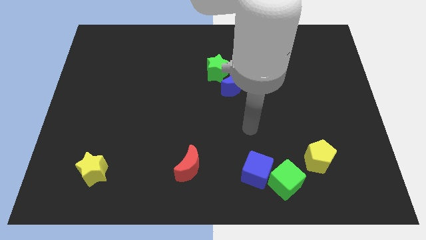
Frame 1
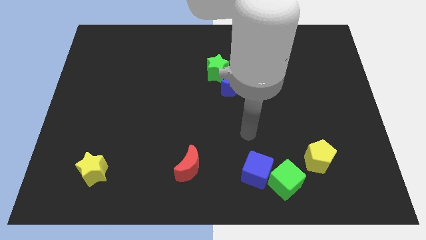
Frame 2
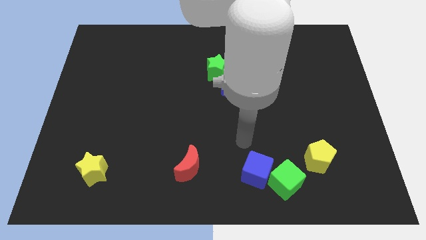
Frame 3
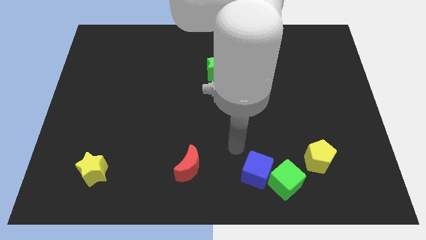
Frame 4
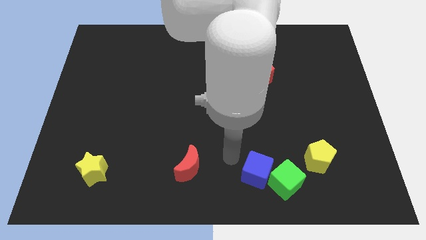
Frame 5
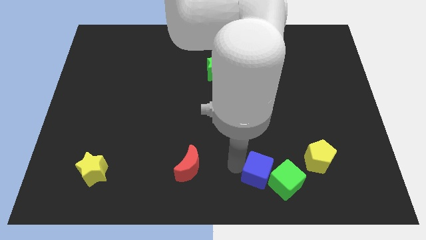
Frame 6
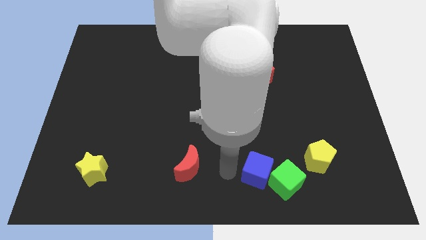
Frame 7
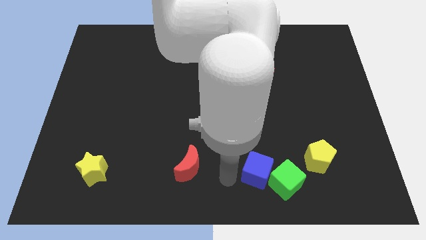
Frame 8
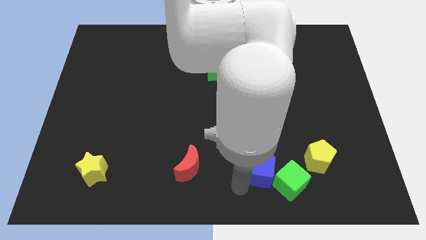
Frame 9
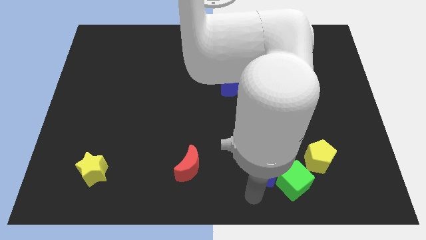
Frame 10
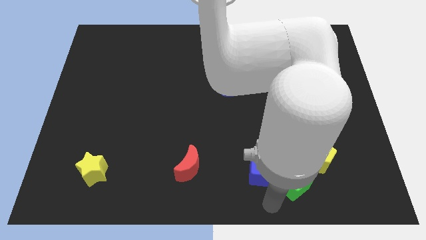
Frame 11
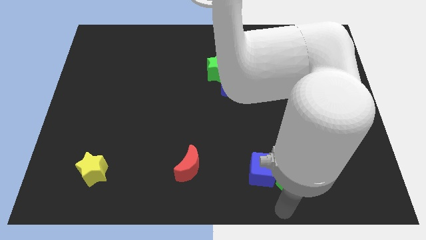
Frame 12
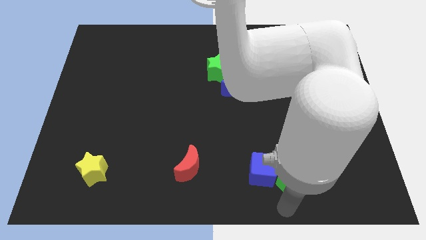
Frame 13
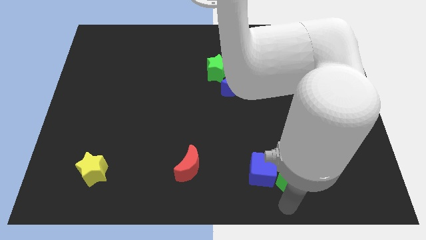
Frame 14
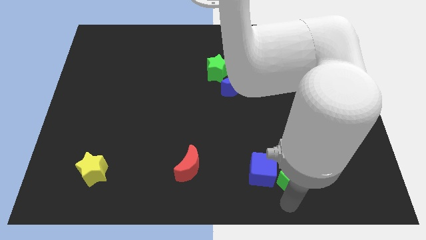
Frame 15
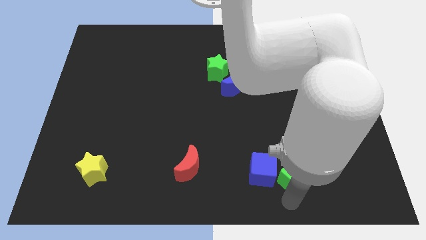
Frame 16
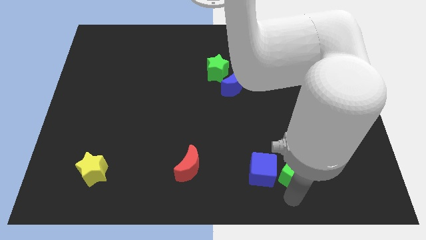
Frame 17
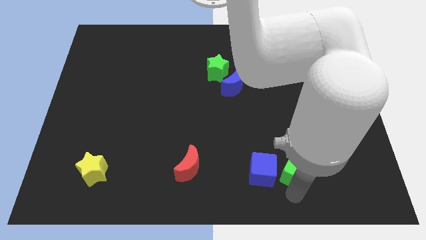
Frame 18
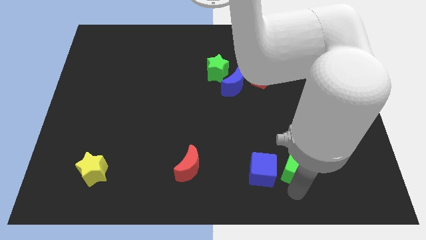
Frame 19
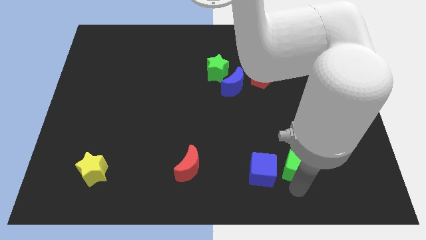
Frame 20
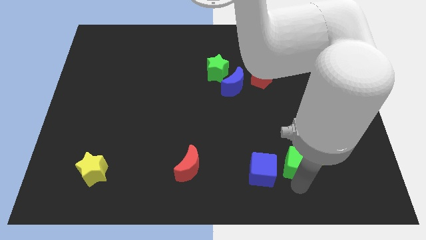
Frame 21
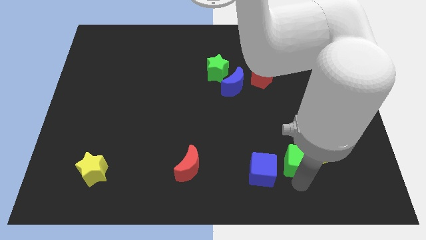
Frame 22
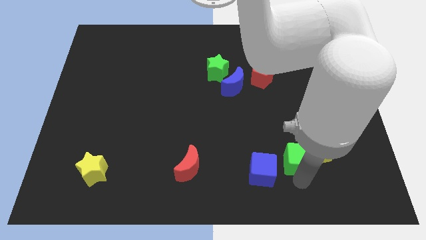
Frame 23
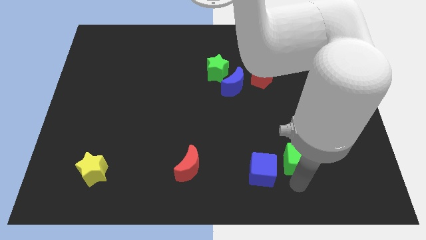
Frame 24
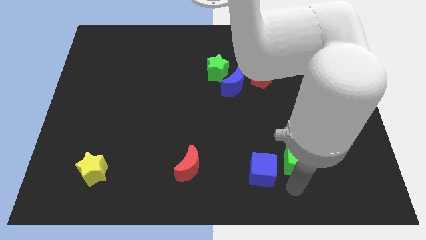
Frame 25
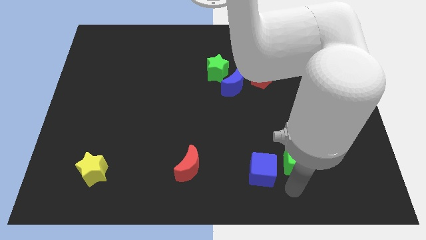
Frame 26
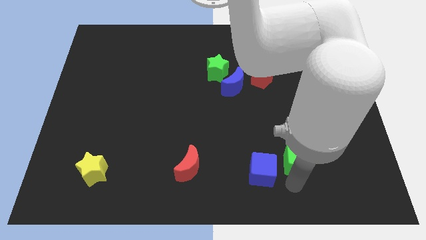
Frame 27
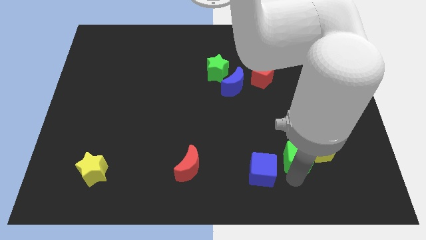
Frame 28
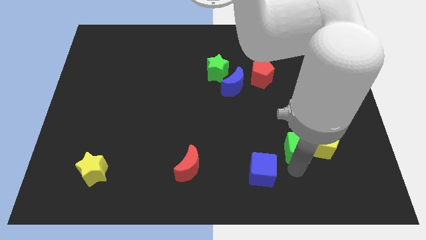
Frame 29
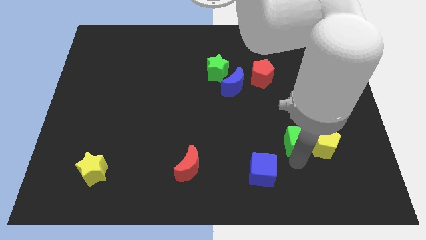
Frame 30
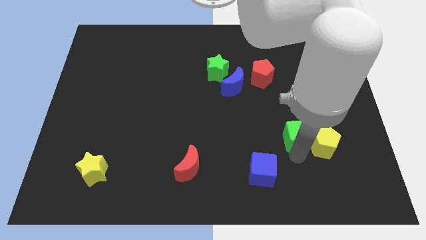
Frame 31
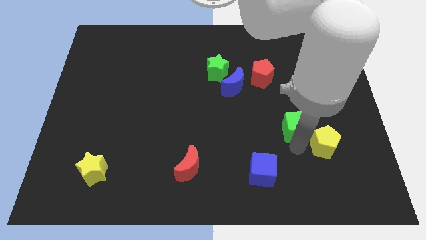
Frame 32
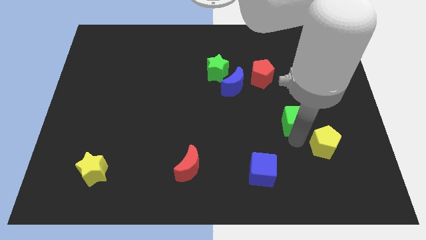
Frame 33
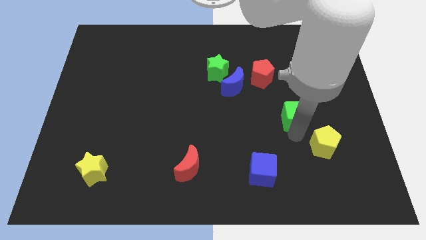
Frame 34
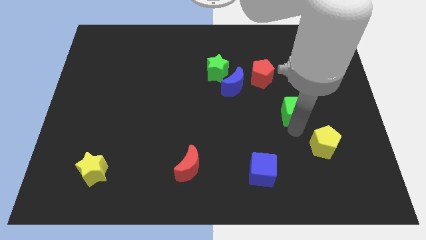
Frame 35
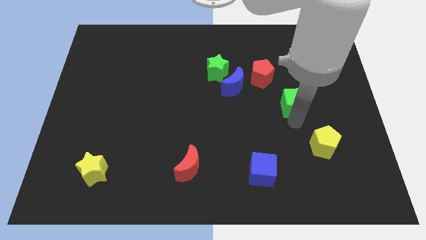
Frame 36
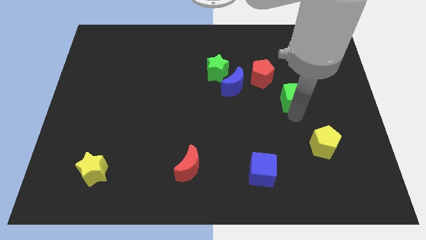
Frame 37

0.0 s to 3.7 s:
move the green cube up

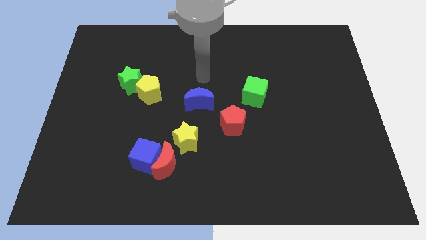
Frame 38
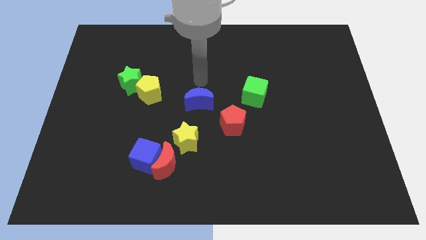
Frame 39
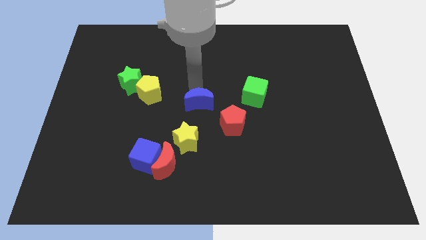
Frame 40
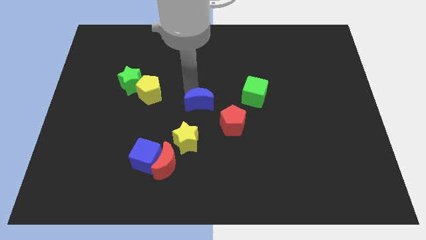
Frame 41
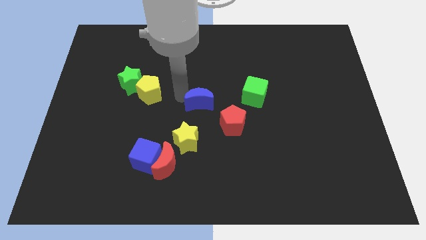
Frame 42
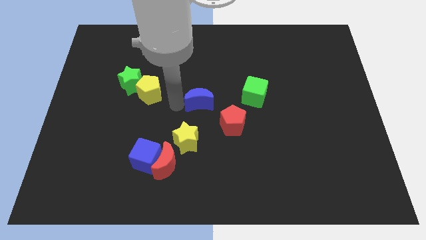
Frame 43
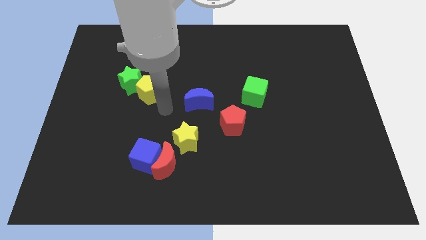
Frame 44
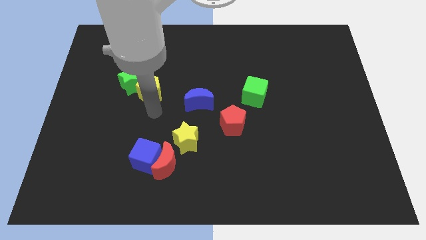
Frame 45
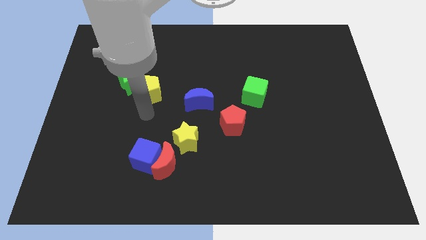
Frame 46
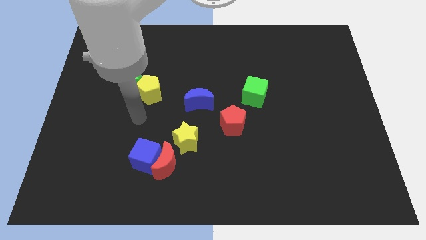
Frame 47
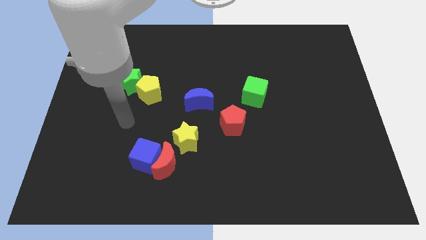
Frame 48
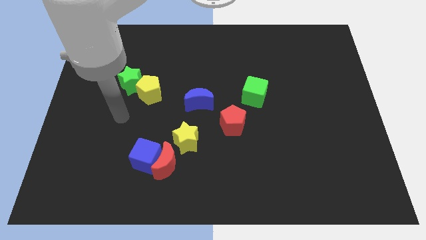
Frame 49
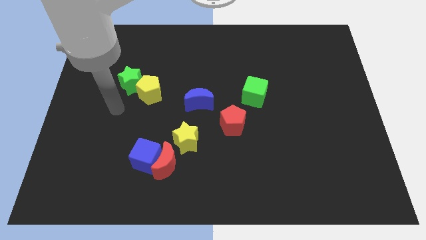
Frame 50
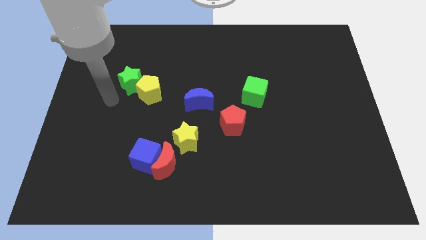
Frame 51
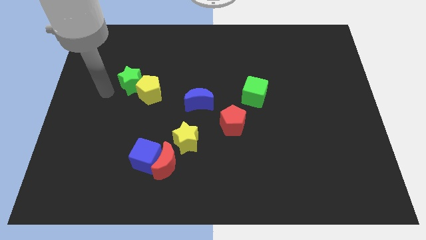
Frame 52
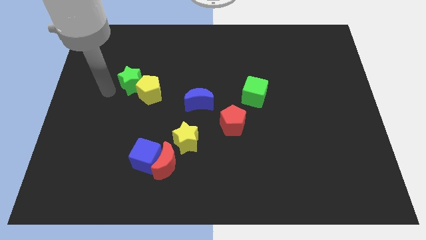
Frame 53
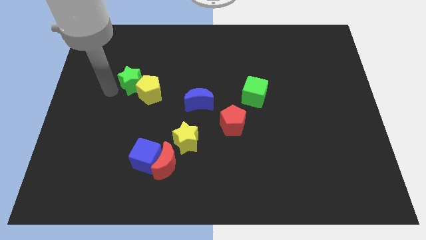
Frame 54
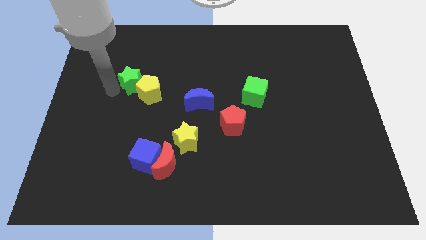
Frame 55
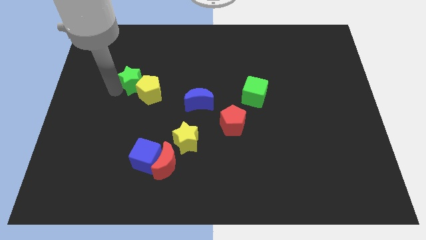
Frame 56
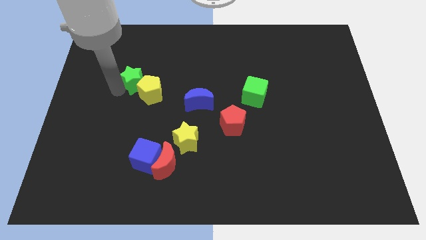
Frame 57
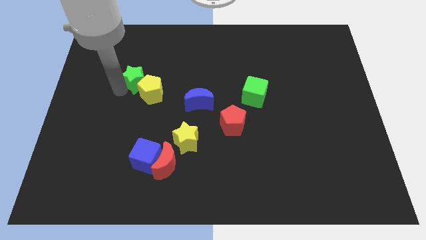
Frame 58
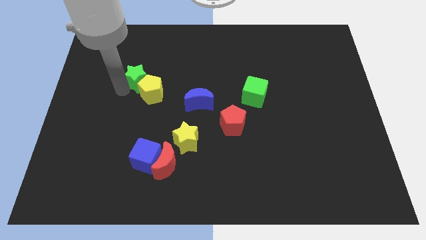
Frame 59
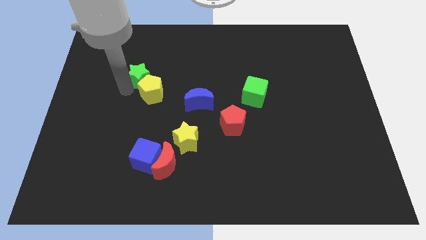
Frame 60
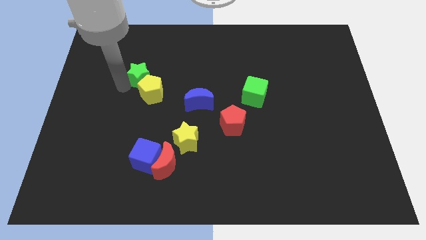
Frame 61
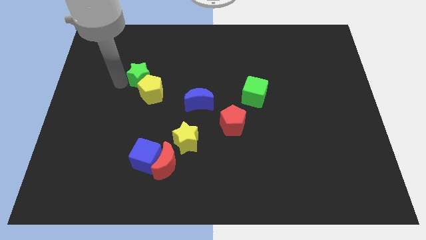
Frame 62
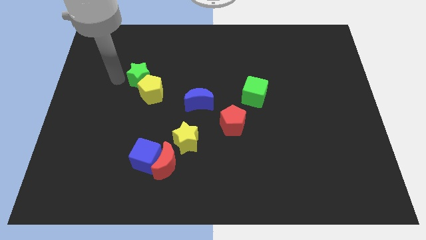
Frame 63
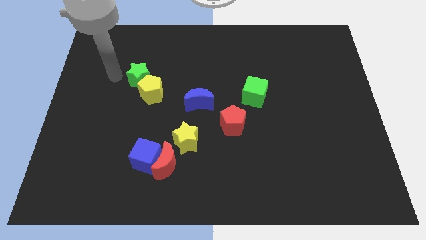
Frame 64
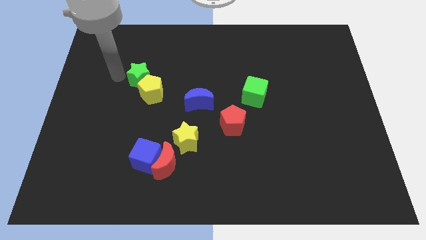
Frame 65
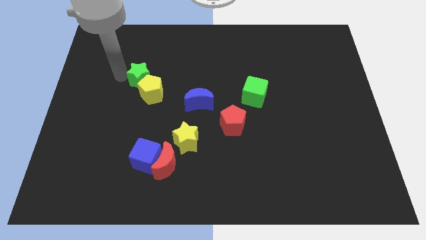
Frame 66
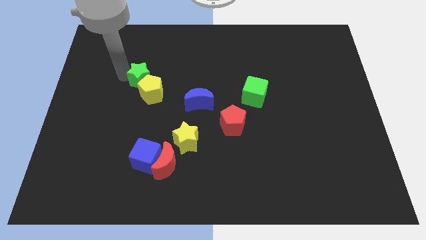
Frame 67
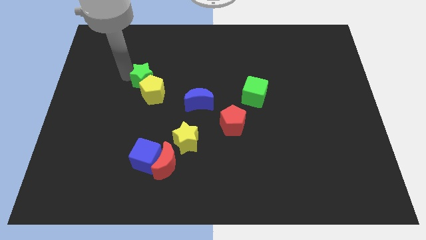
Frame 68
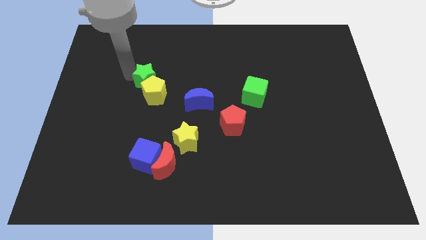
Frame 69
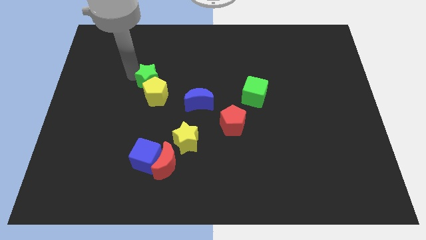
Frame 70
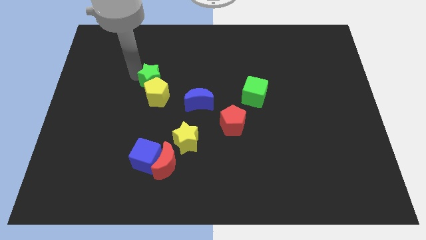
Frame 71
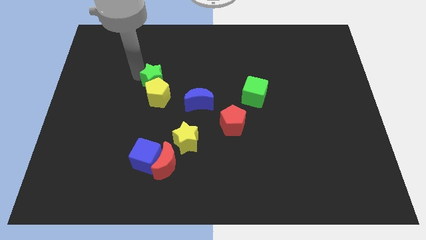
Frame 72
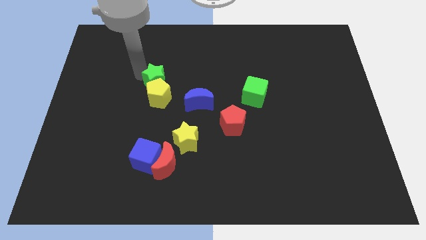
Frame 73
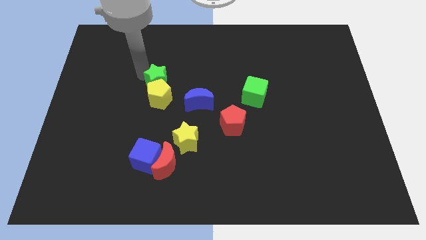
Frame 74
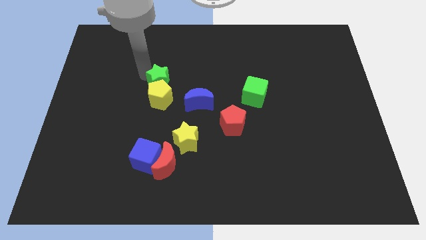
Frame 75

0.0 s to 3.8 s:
slightly push the green star to the right

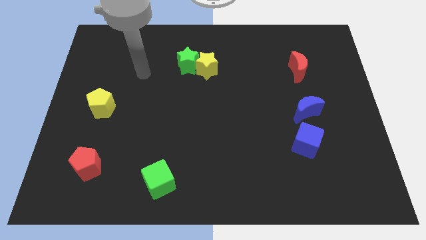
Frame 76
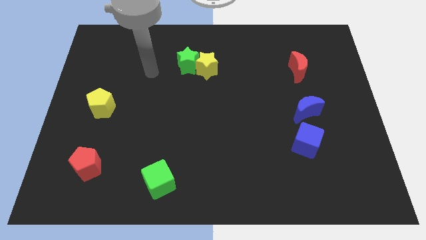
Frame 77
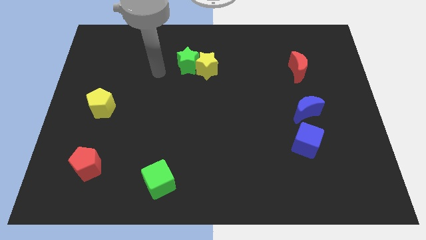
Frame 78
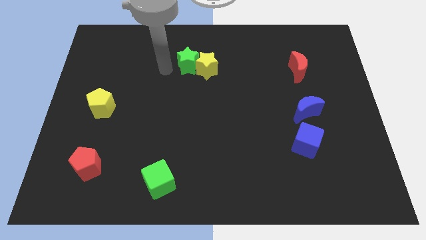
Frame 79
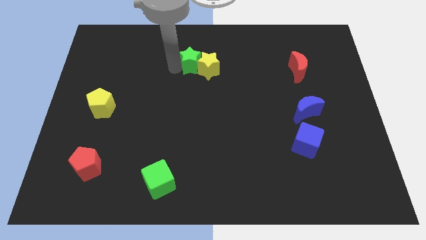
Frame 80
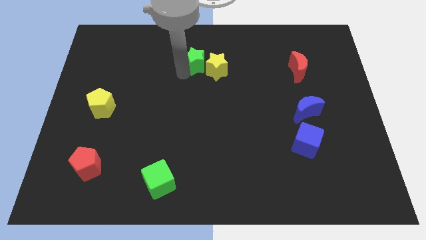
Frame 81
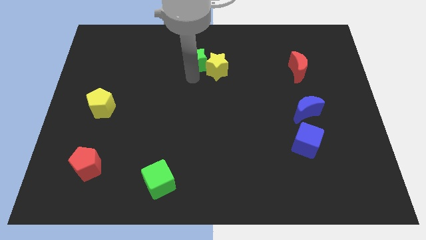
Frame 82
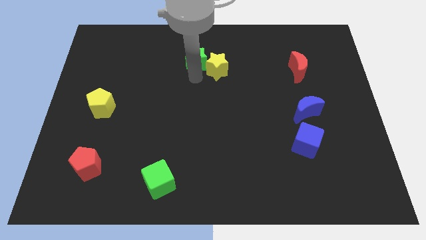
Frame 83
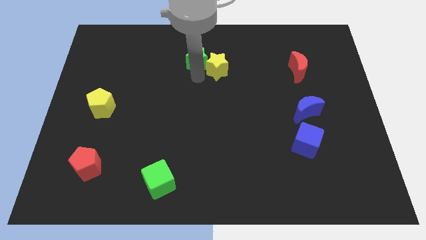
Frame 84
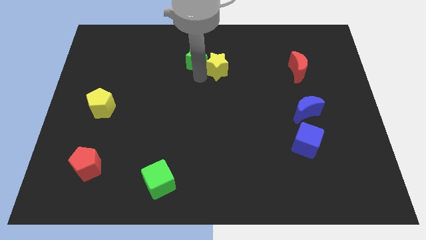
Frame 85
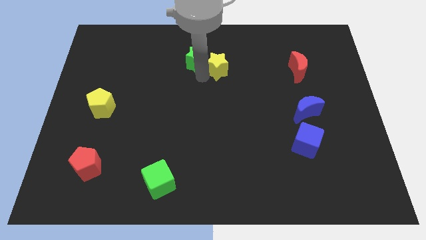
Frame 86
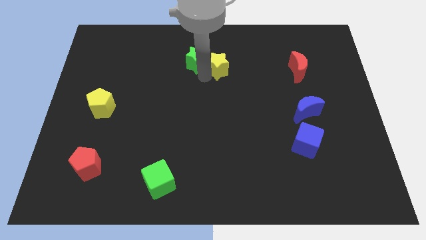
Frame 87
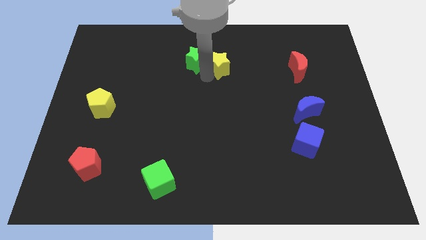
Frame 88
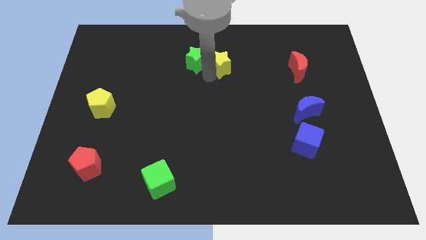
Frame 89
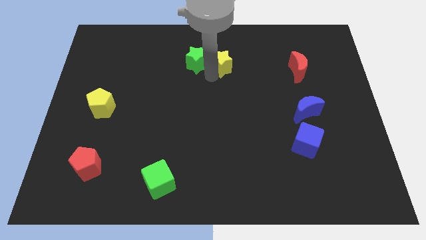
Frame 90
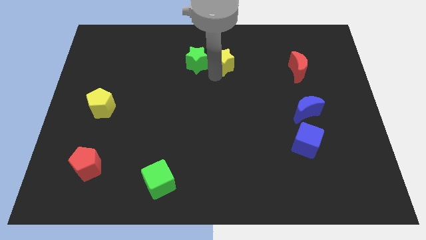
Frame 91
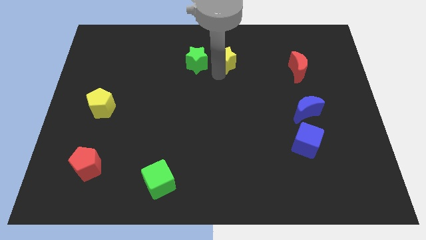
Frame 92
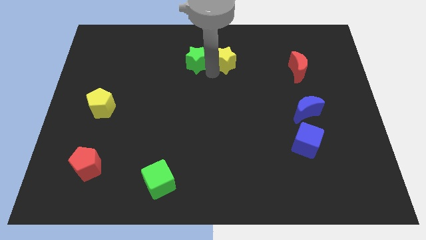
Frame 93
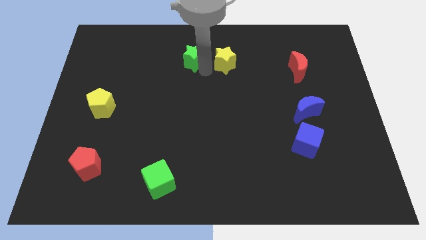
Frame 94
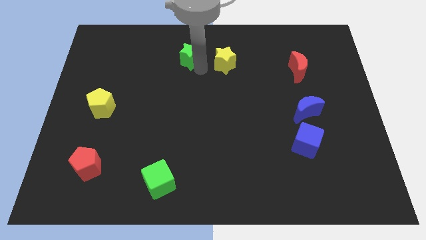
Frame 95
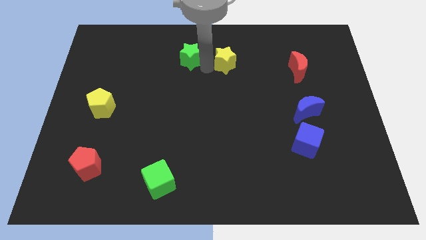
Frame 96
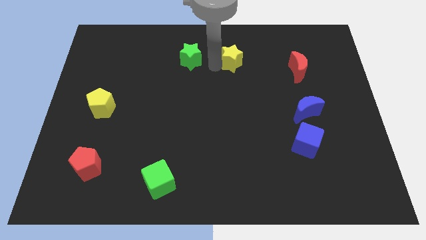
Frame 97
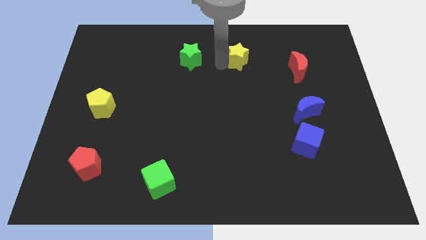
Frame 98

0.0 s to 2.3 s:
slide the yellow star slightly right
